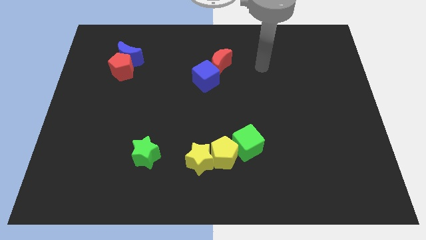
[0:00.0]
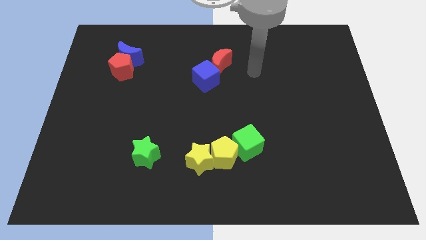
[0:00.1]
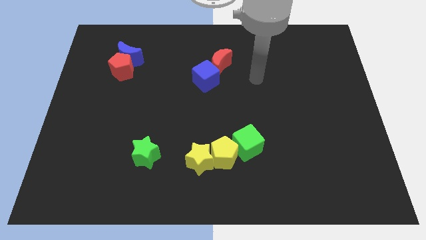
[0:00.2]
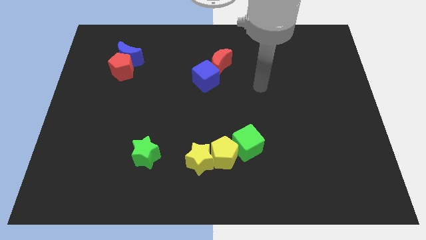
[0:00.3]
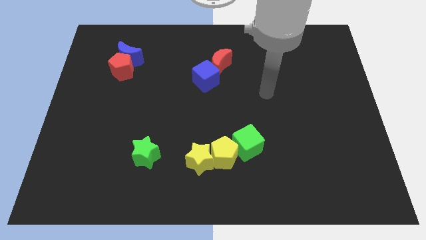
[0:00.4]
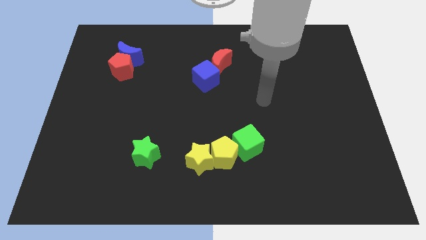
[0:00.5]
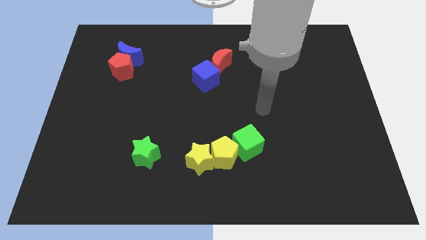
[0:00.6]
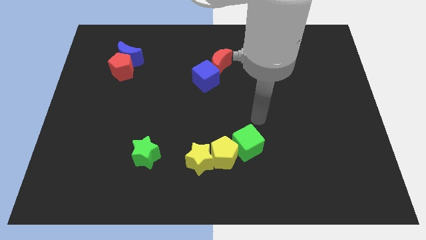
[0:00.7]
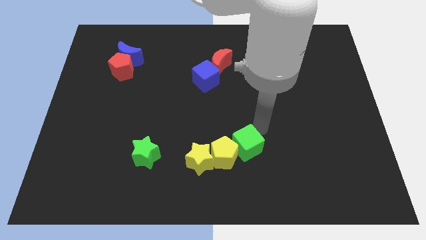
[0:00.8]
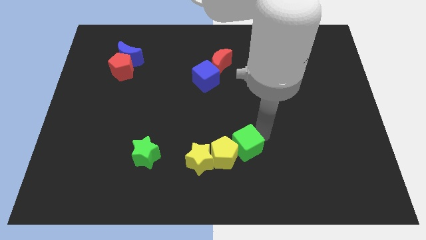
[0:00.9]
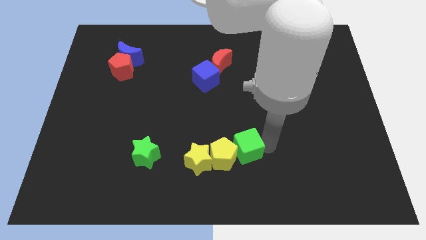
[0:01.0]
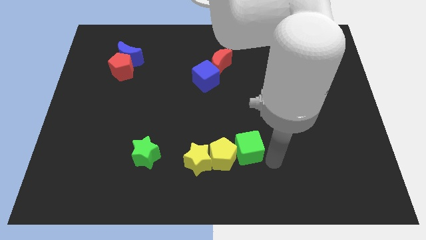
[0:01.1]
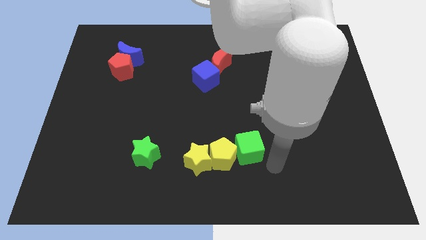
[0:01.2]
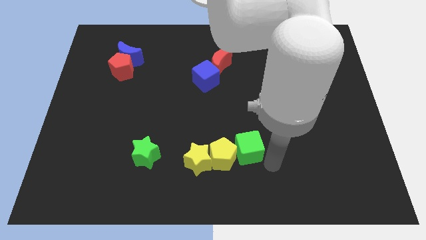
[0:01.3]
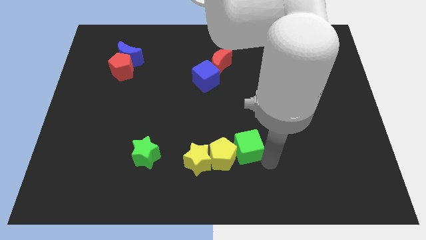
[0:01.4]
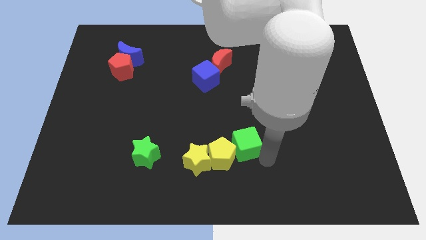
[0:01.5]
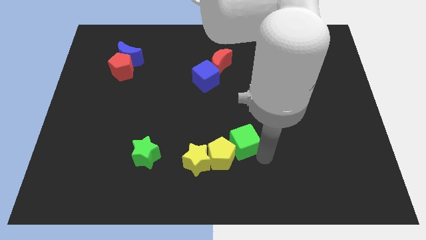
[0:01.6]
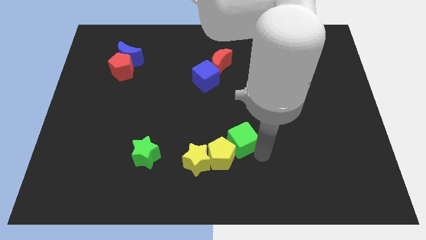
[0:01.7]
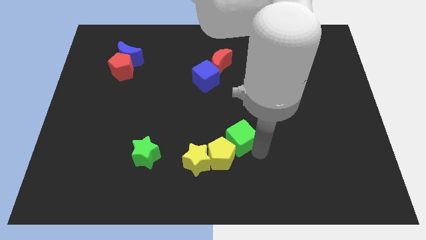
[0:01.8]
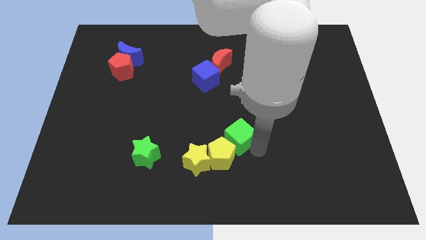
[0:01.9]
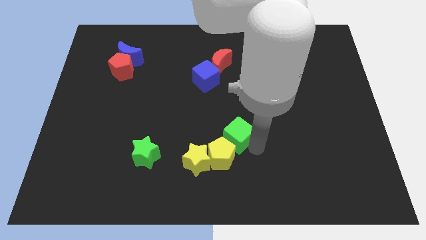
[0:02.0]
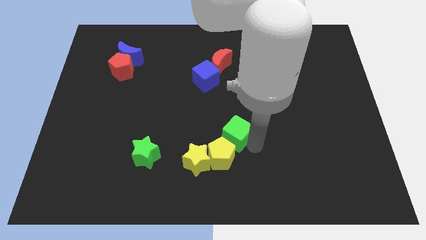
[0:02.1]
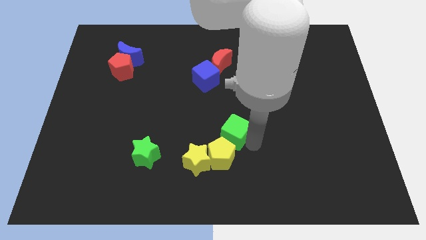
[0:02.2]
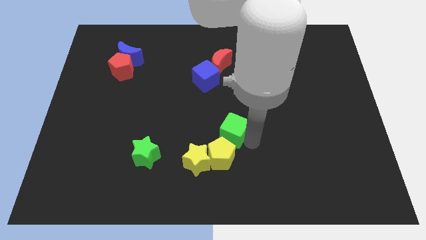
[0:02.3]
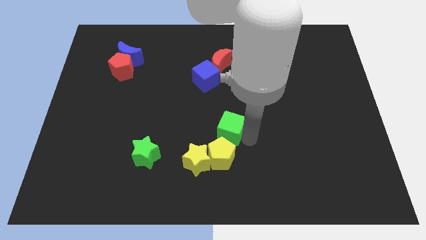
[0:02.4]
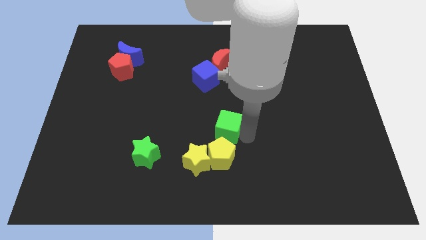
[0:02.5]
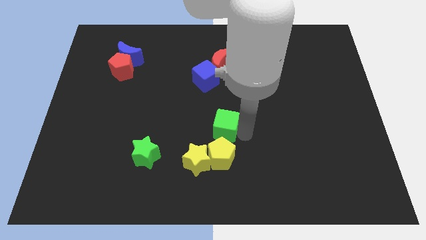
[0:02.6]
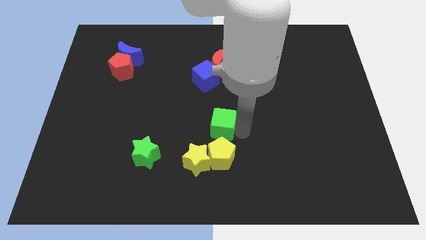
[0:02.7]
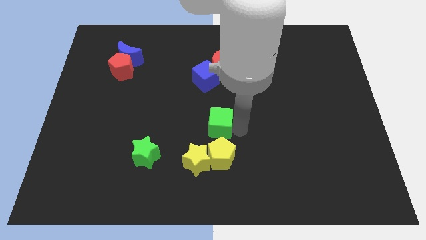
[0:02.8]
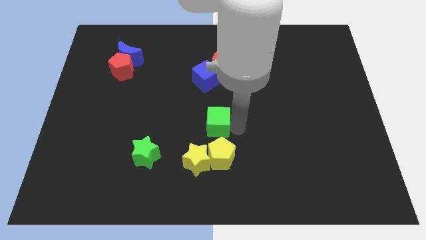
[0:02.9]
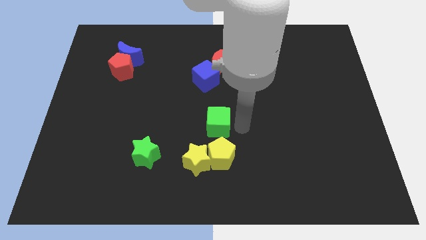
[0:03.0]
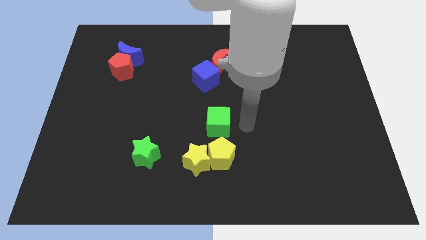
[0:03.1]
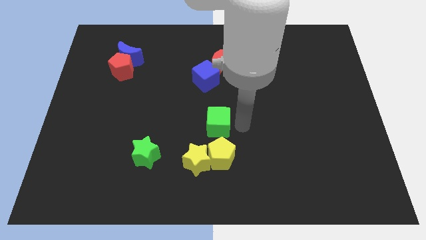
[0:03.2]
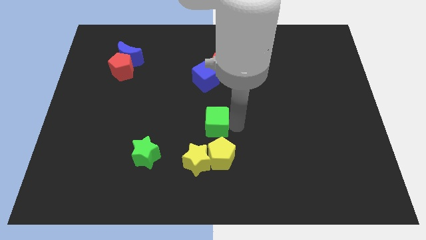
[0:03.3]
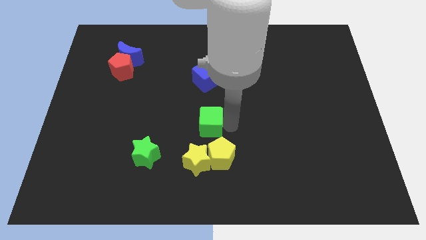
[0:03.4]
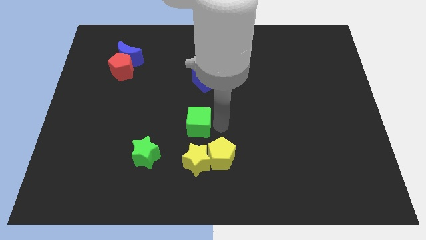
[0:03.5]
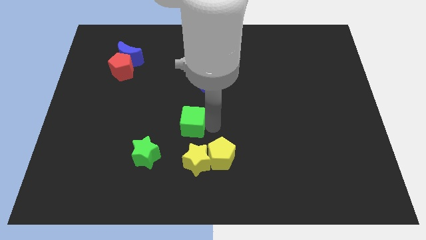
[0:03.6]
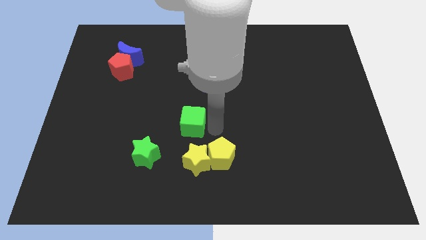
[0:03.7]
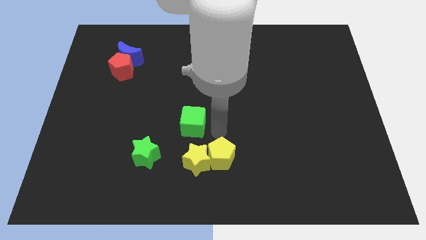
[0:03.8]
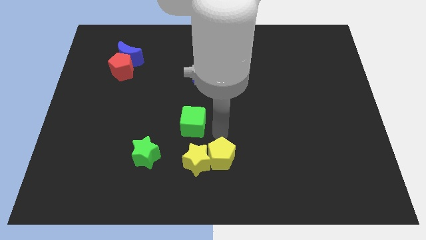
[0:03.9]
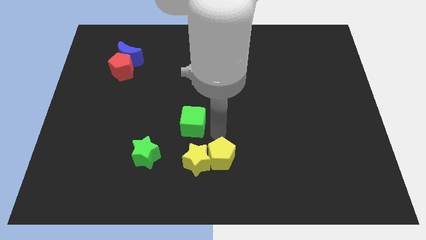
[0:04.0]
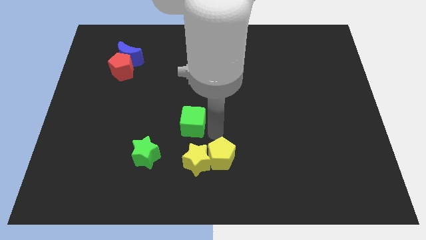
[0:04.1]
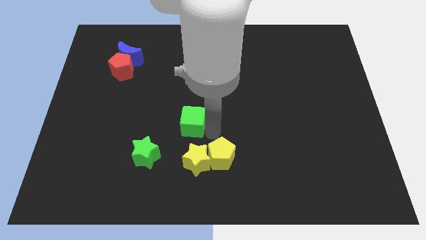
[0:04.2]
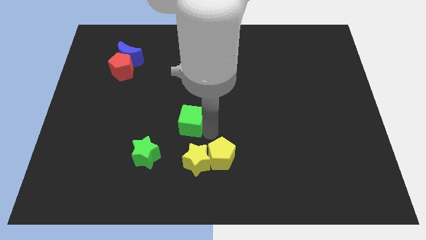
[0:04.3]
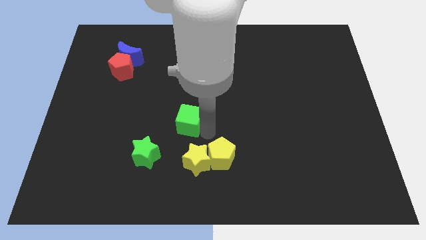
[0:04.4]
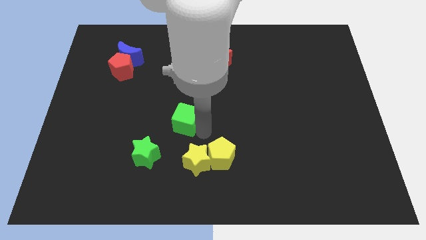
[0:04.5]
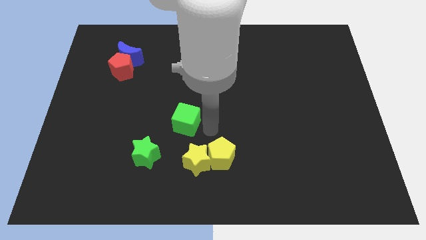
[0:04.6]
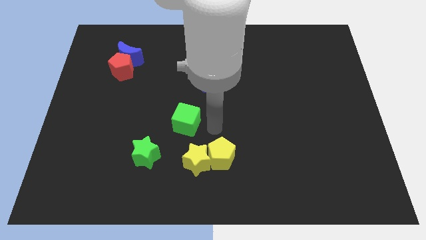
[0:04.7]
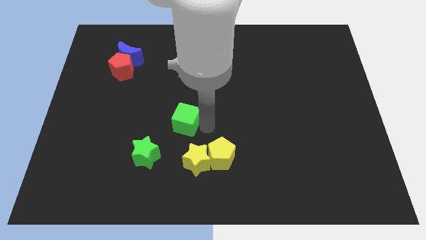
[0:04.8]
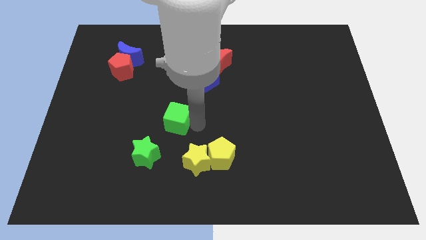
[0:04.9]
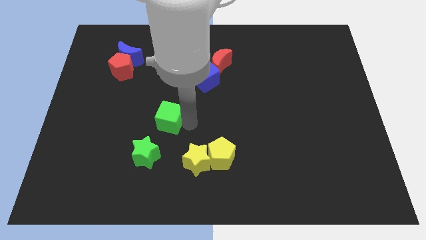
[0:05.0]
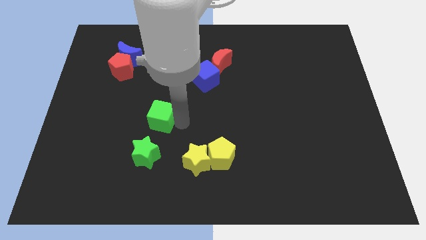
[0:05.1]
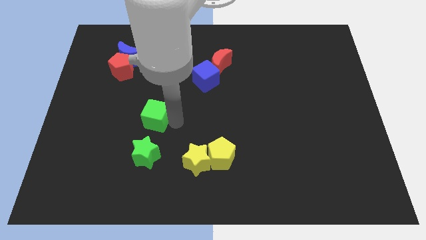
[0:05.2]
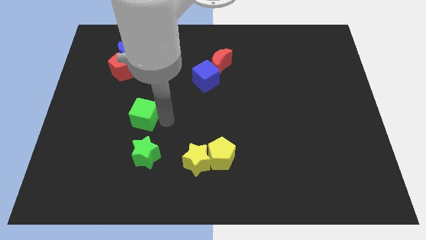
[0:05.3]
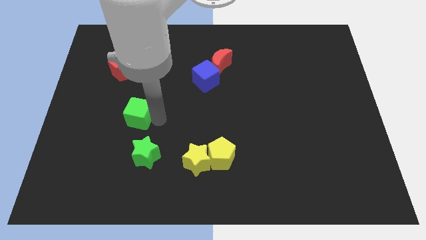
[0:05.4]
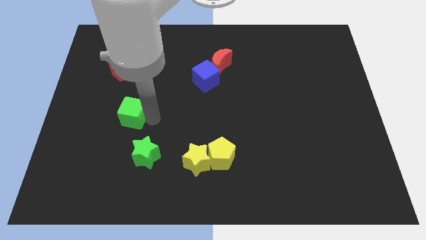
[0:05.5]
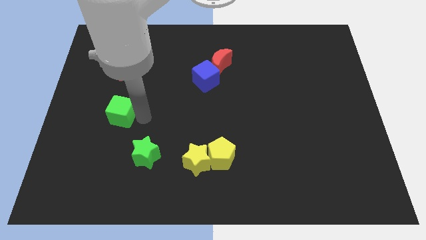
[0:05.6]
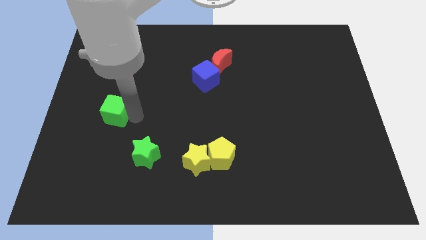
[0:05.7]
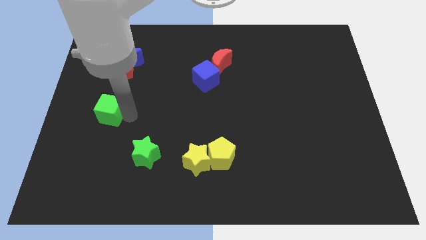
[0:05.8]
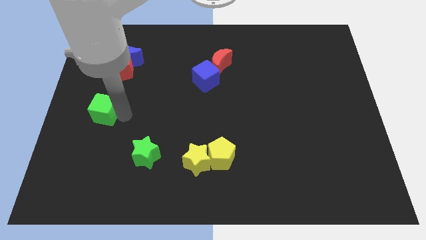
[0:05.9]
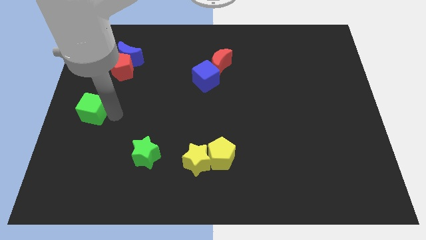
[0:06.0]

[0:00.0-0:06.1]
move the green cube to the center left

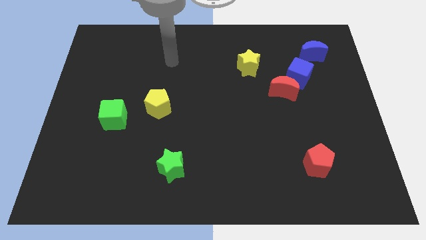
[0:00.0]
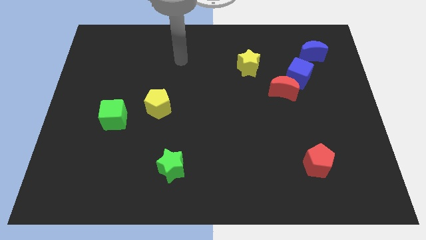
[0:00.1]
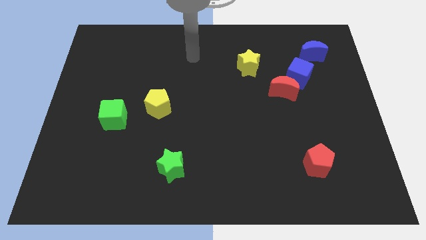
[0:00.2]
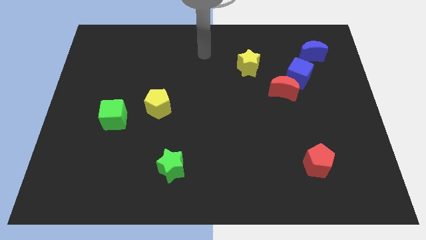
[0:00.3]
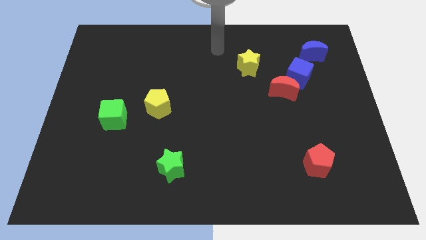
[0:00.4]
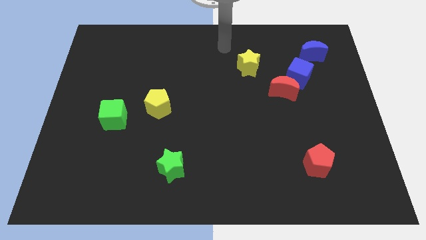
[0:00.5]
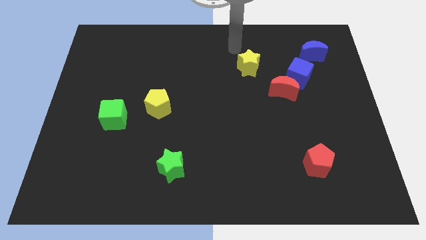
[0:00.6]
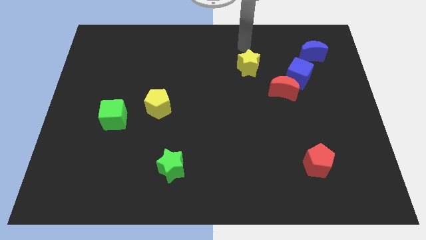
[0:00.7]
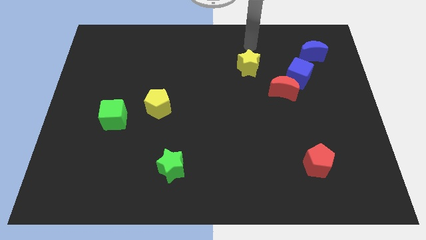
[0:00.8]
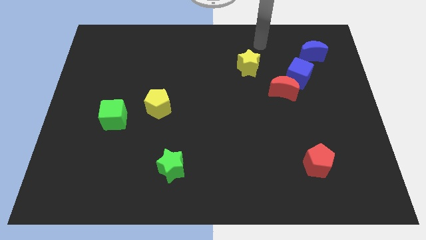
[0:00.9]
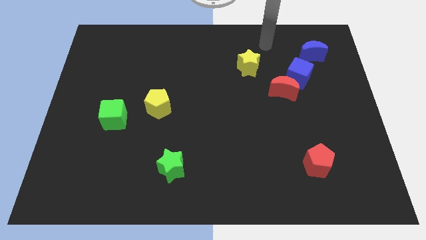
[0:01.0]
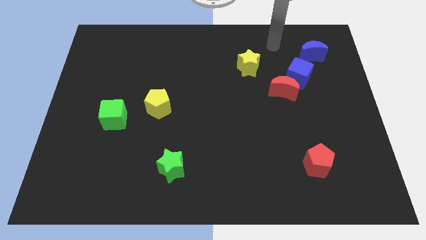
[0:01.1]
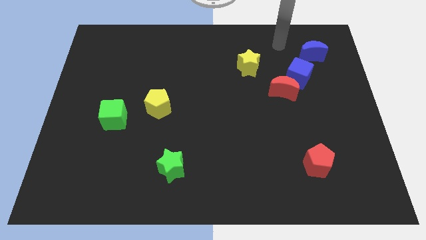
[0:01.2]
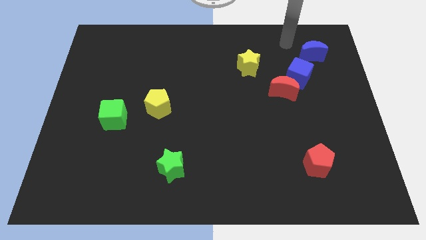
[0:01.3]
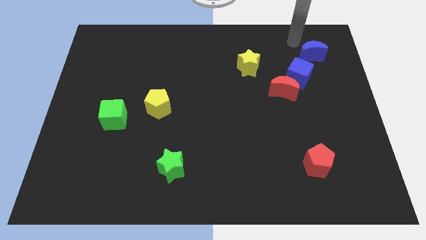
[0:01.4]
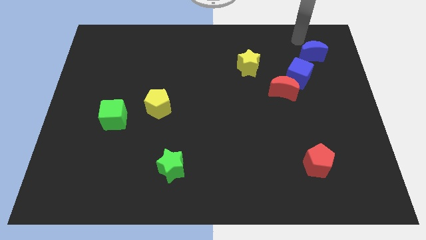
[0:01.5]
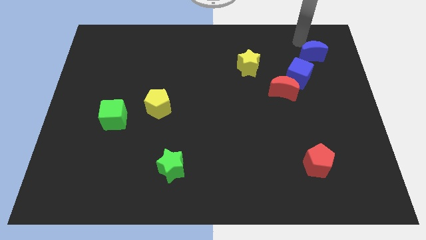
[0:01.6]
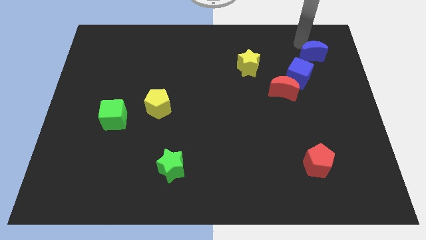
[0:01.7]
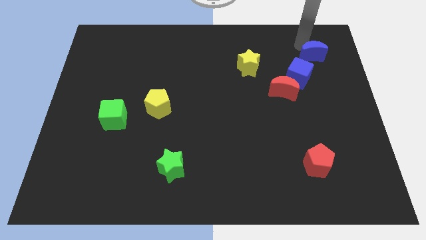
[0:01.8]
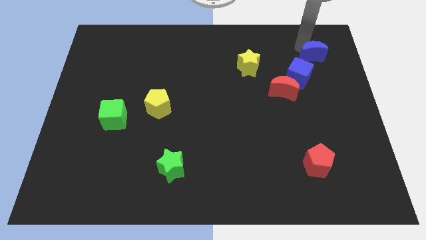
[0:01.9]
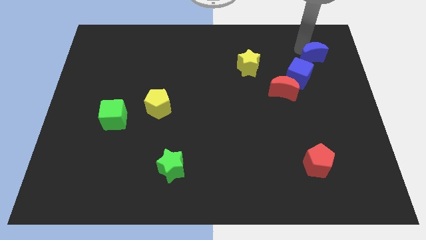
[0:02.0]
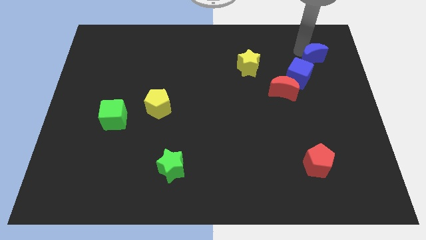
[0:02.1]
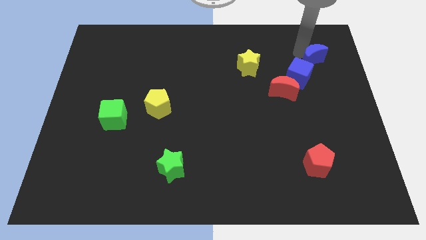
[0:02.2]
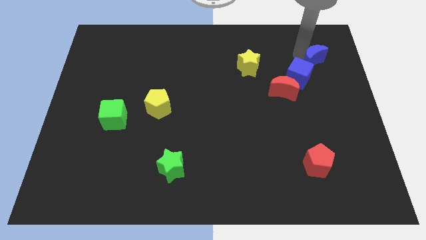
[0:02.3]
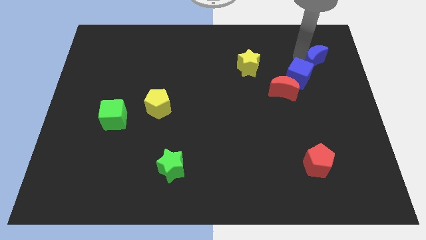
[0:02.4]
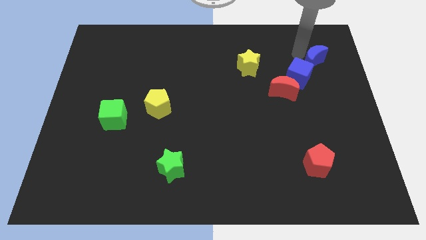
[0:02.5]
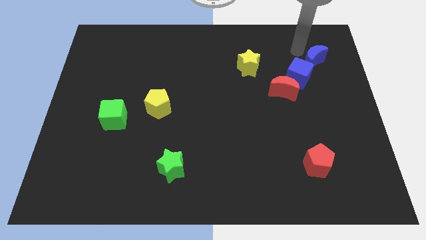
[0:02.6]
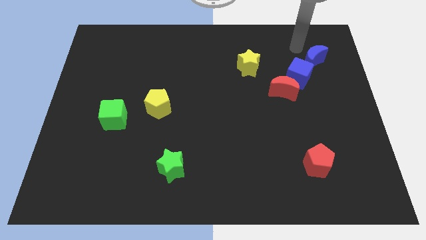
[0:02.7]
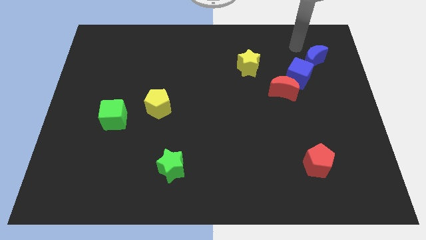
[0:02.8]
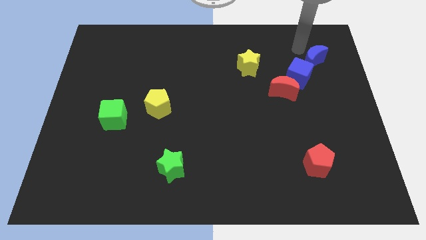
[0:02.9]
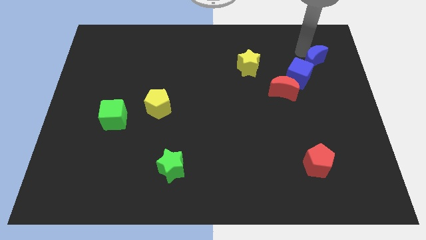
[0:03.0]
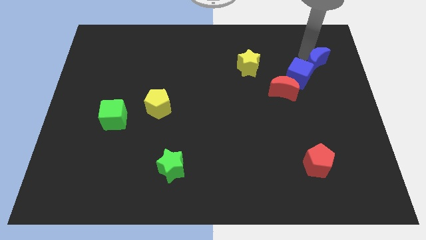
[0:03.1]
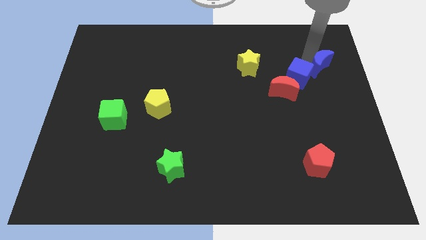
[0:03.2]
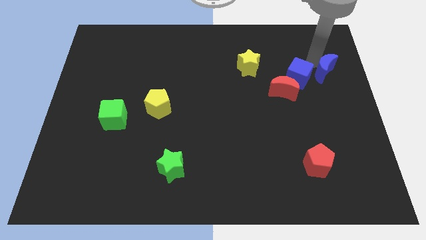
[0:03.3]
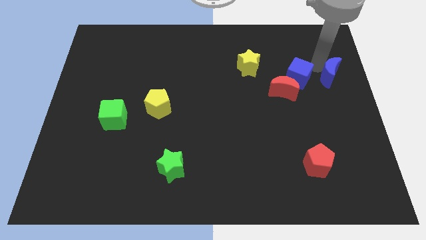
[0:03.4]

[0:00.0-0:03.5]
move the blue moon to the center right
